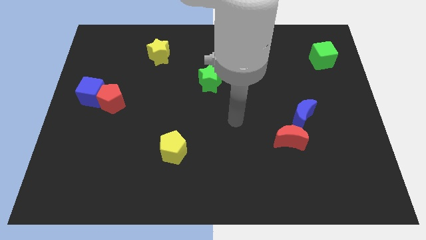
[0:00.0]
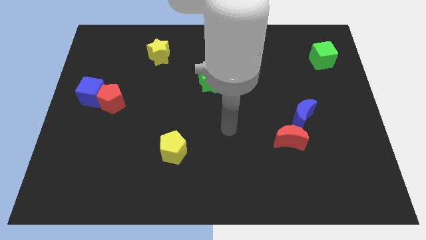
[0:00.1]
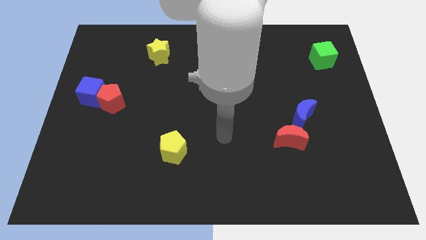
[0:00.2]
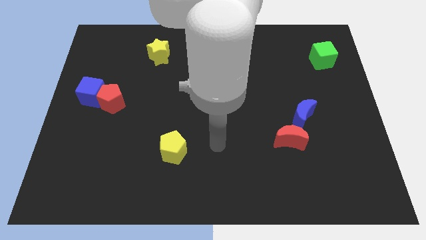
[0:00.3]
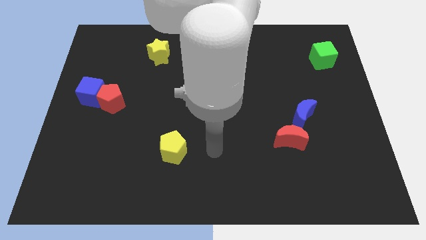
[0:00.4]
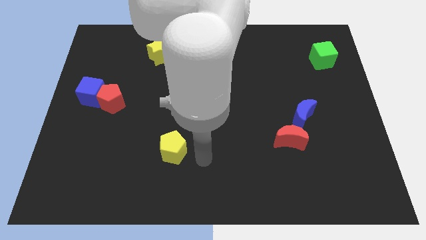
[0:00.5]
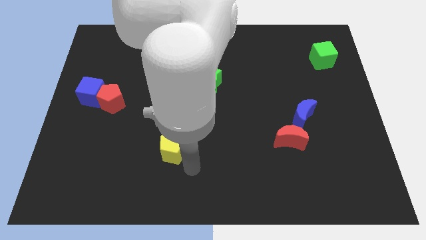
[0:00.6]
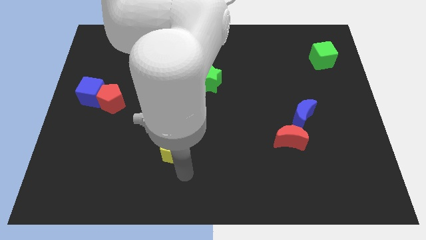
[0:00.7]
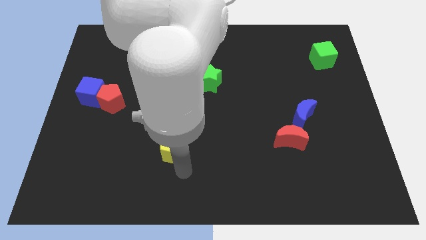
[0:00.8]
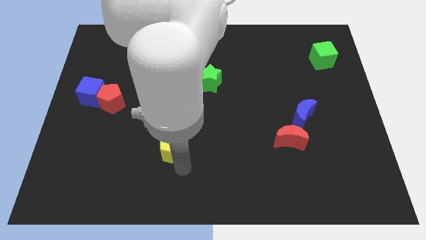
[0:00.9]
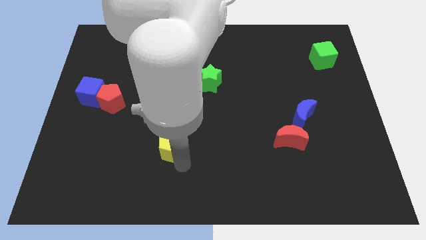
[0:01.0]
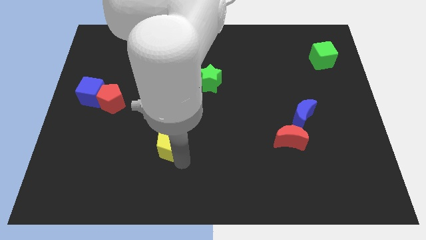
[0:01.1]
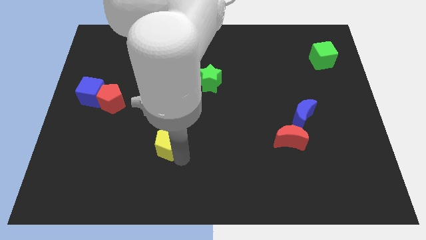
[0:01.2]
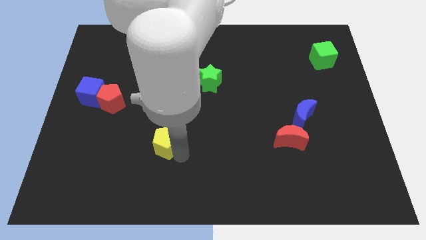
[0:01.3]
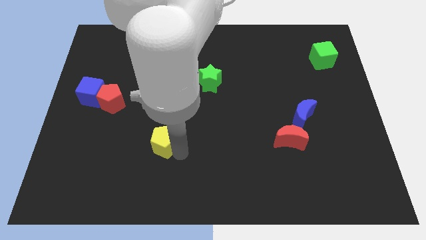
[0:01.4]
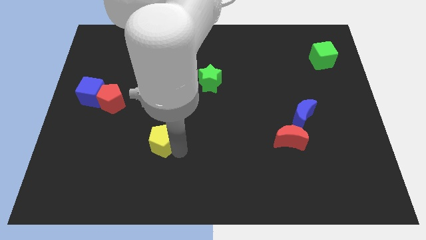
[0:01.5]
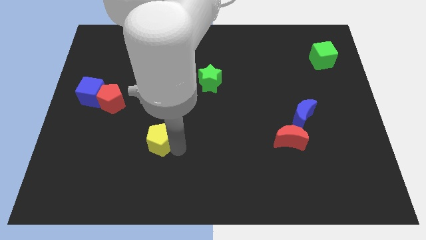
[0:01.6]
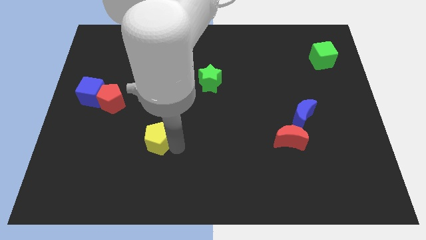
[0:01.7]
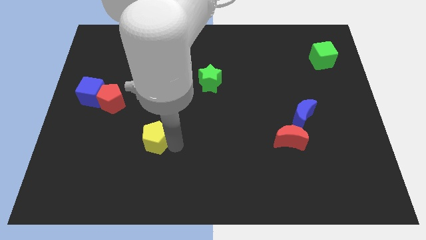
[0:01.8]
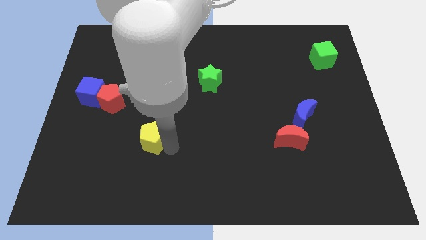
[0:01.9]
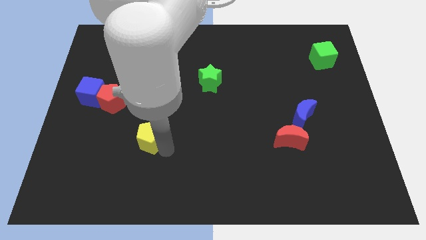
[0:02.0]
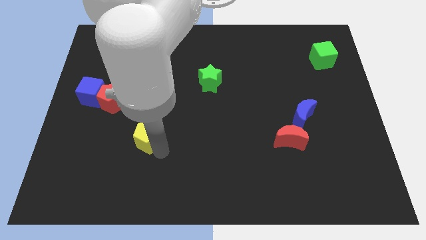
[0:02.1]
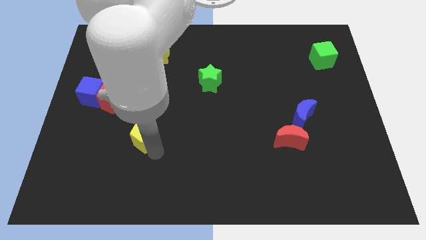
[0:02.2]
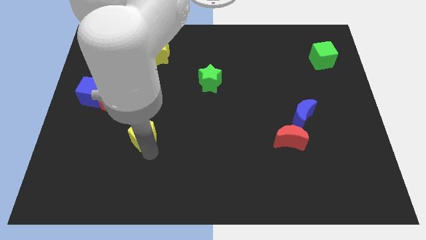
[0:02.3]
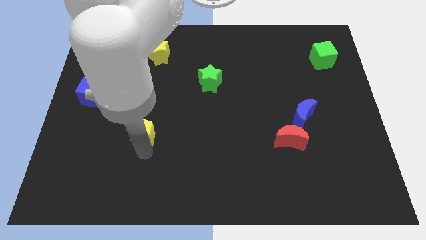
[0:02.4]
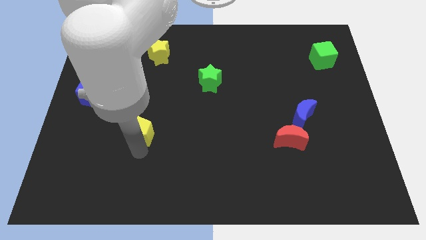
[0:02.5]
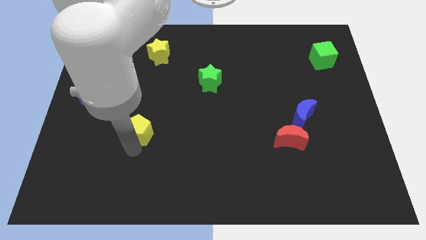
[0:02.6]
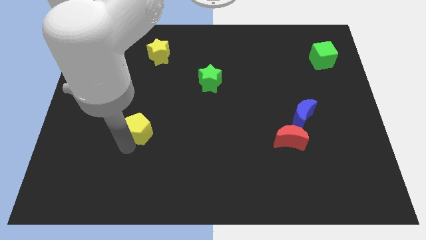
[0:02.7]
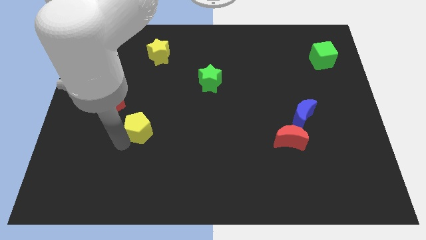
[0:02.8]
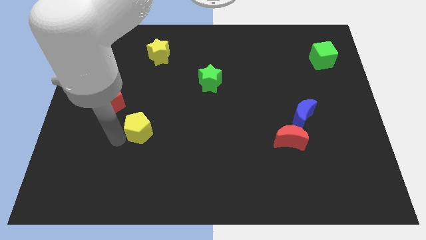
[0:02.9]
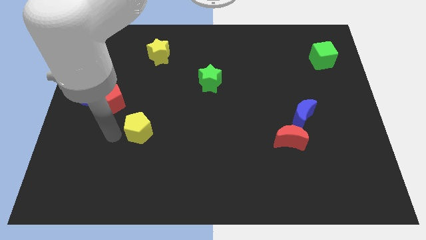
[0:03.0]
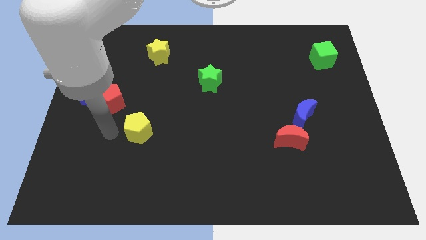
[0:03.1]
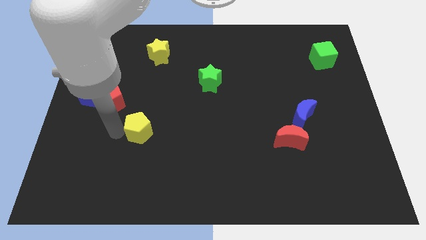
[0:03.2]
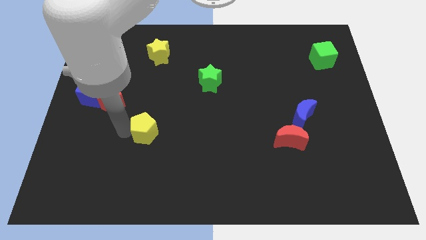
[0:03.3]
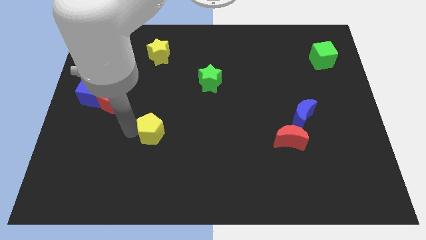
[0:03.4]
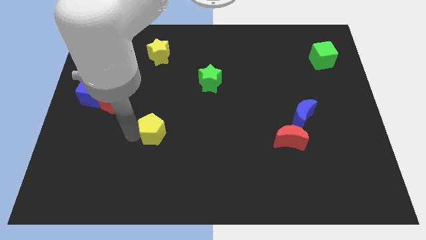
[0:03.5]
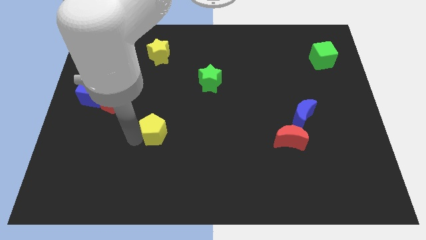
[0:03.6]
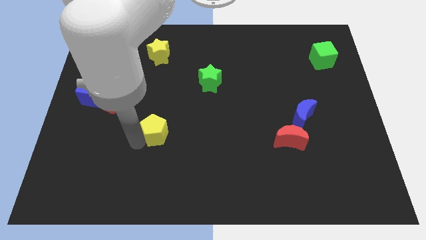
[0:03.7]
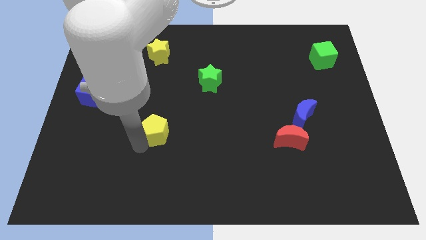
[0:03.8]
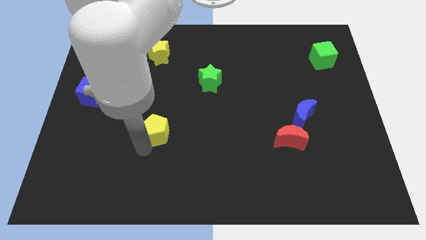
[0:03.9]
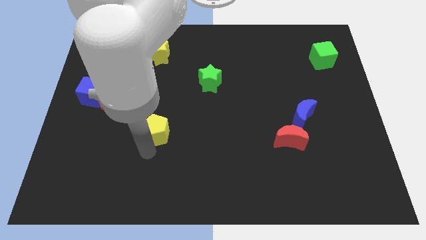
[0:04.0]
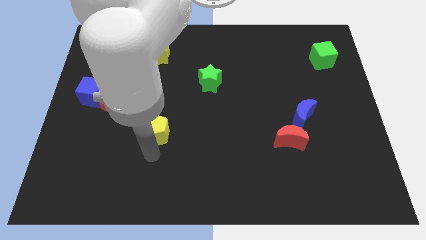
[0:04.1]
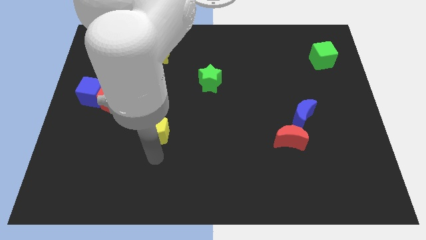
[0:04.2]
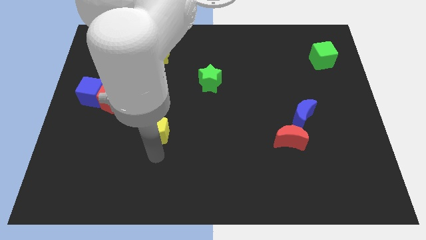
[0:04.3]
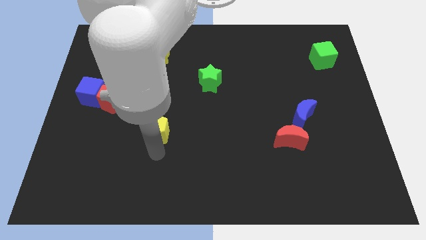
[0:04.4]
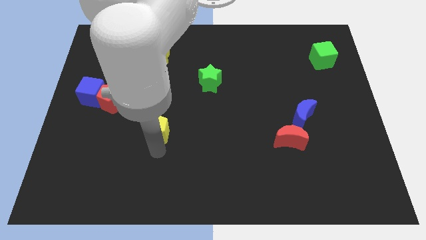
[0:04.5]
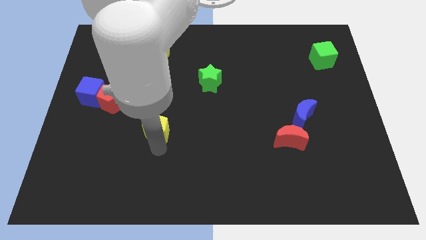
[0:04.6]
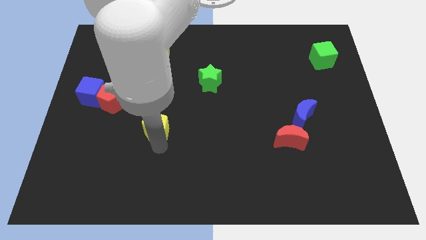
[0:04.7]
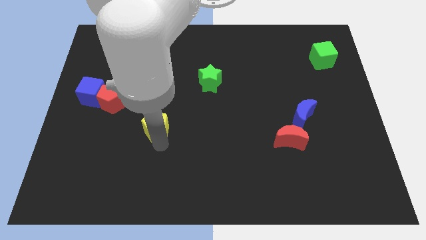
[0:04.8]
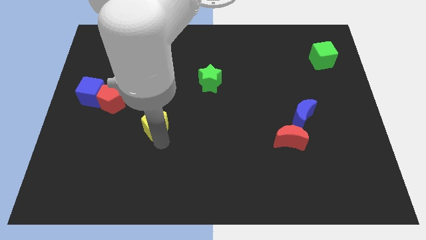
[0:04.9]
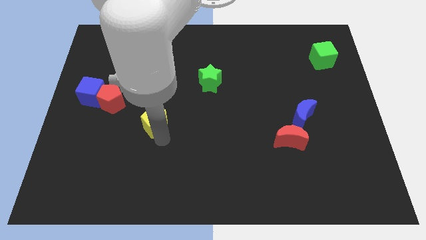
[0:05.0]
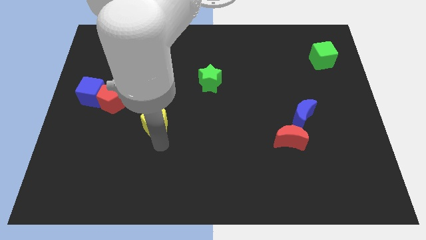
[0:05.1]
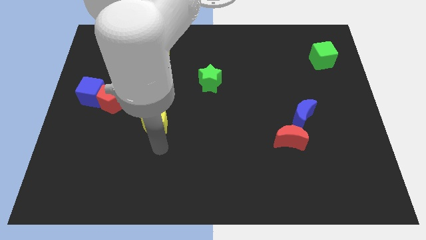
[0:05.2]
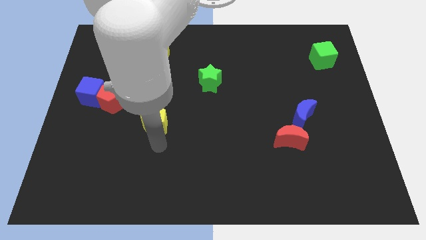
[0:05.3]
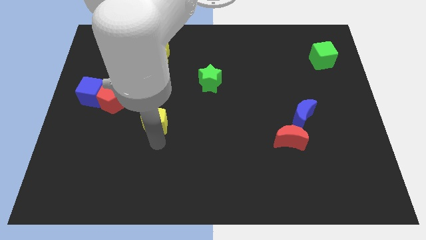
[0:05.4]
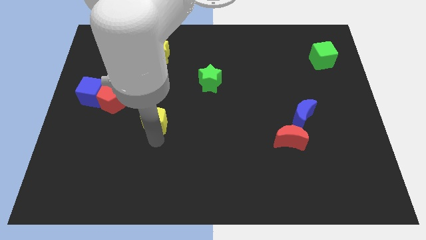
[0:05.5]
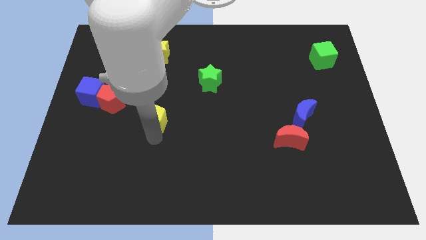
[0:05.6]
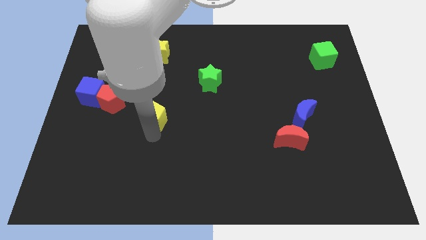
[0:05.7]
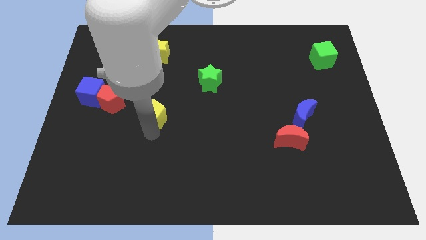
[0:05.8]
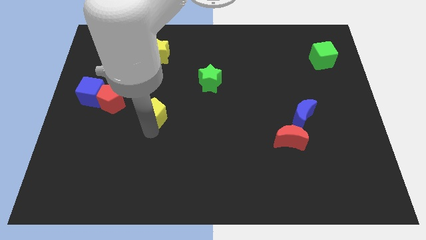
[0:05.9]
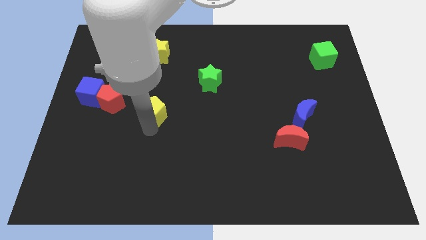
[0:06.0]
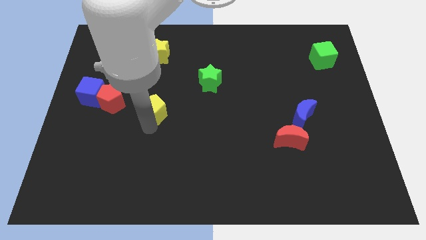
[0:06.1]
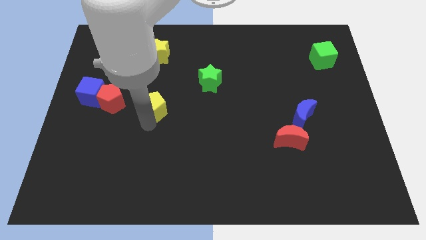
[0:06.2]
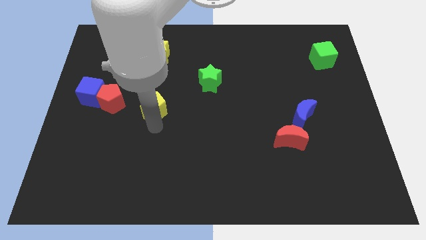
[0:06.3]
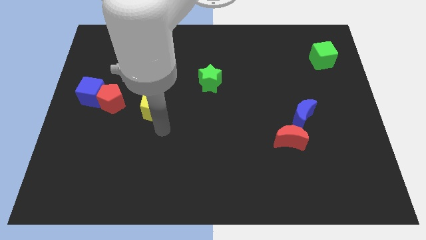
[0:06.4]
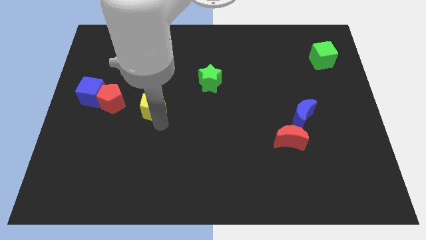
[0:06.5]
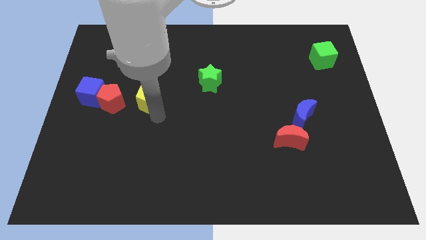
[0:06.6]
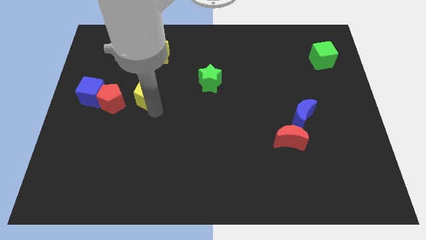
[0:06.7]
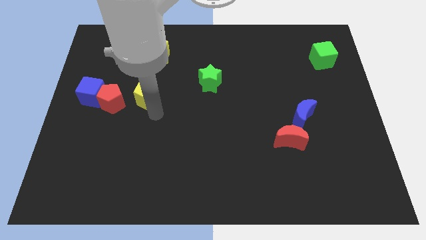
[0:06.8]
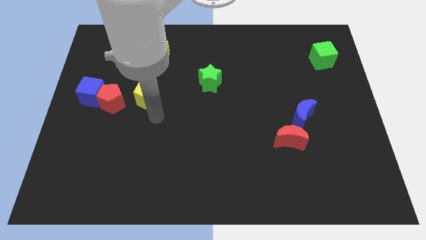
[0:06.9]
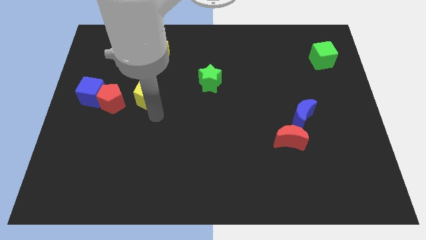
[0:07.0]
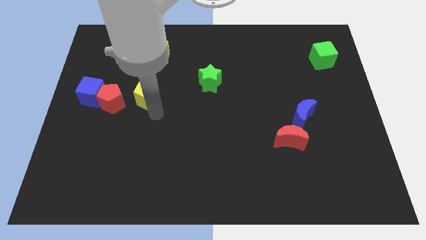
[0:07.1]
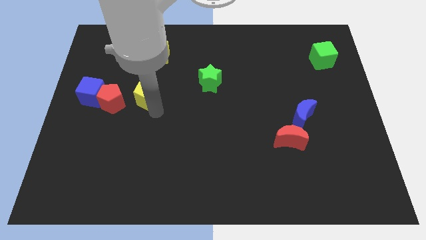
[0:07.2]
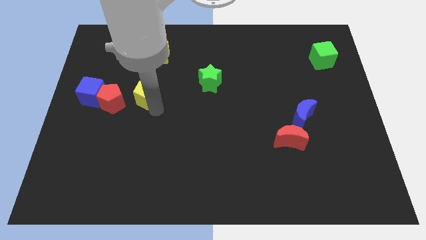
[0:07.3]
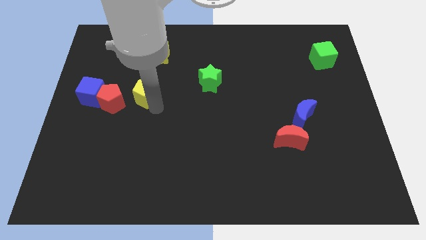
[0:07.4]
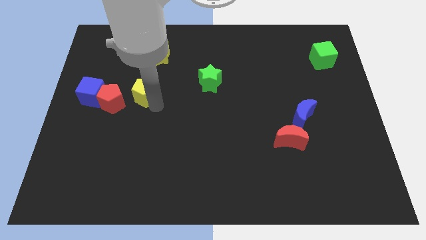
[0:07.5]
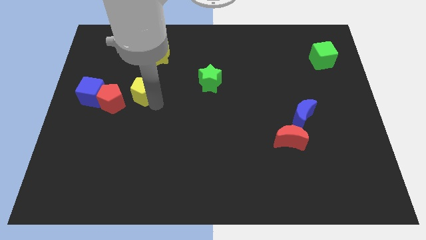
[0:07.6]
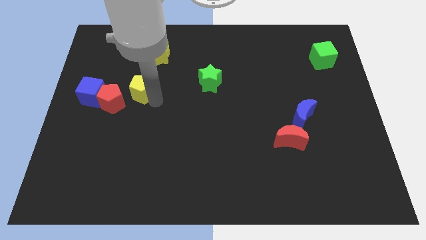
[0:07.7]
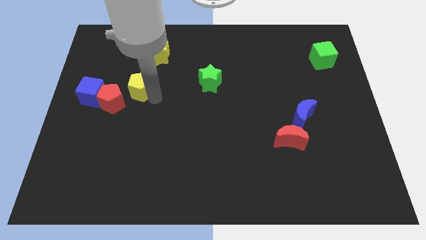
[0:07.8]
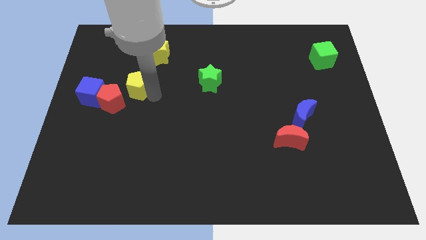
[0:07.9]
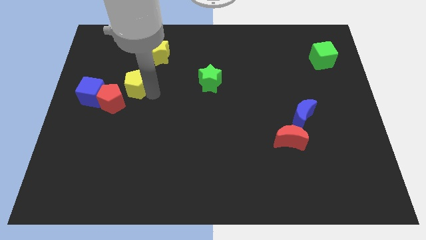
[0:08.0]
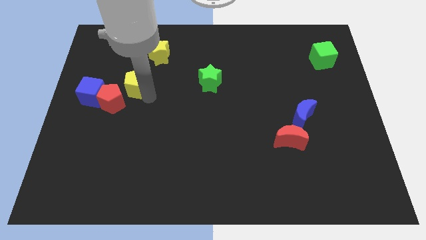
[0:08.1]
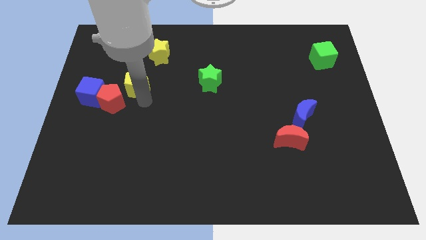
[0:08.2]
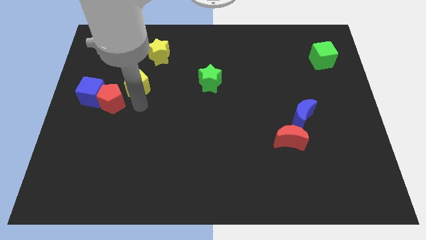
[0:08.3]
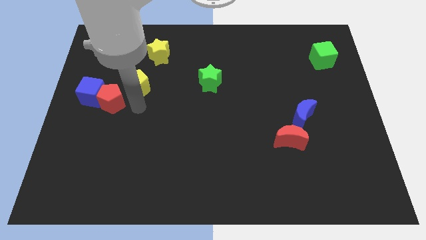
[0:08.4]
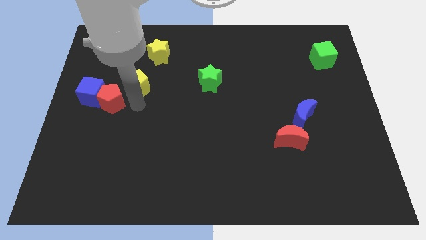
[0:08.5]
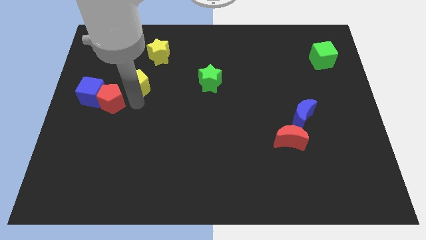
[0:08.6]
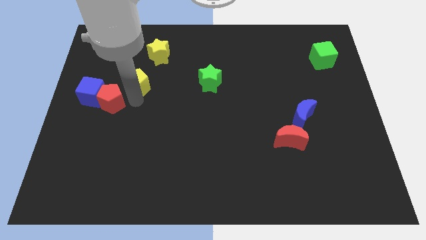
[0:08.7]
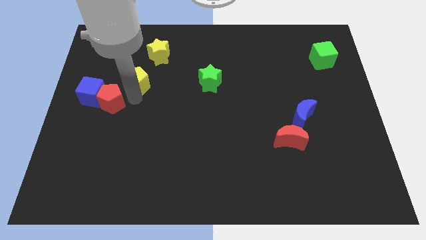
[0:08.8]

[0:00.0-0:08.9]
move the yellow pentagon to the bottom left side of the yellow star
